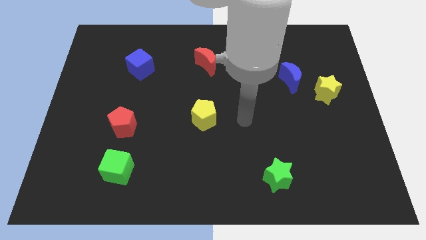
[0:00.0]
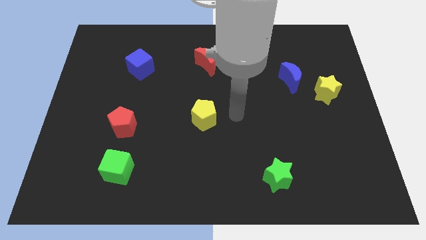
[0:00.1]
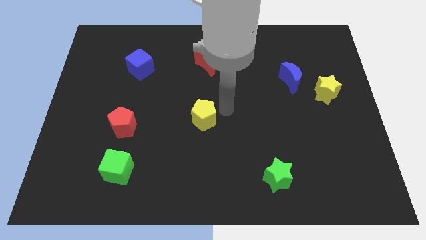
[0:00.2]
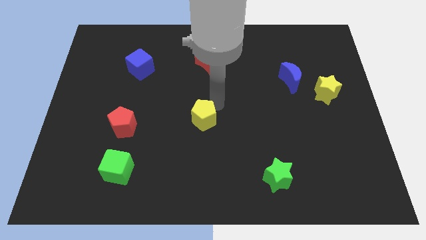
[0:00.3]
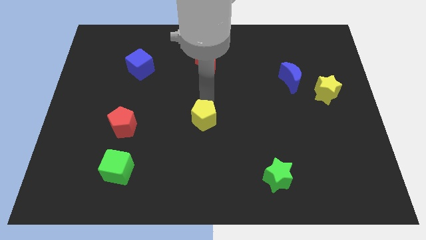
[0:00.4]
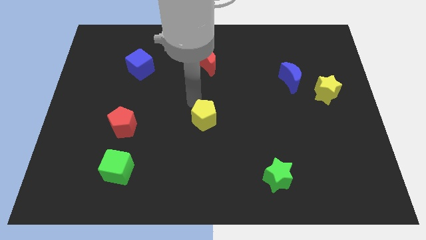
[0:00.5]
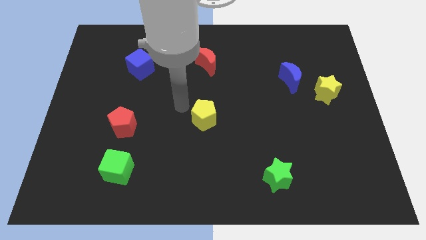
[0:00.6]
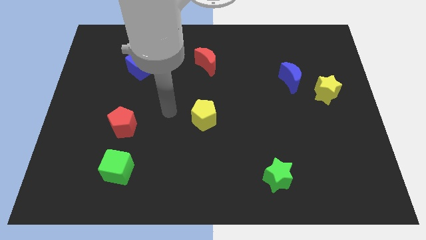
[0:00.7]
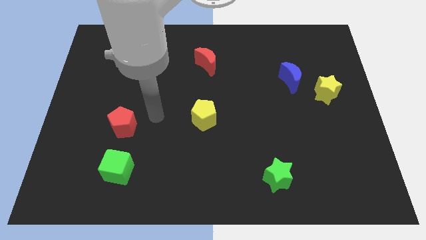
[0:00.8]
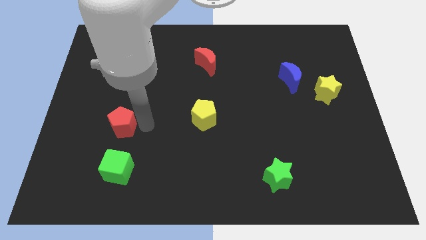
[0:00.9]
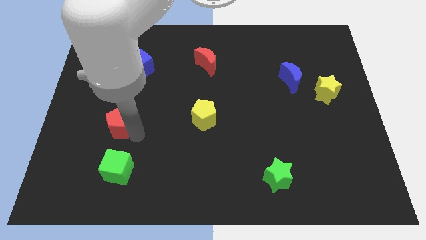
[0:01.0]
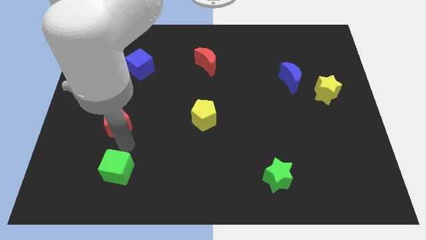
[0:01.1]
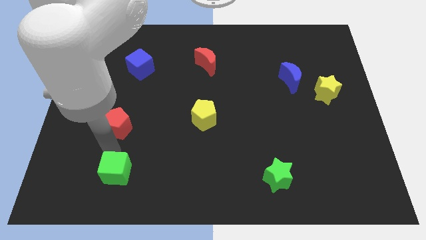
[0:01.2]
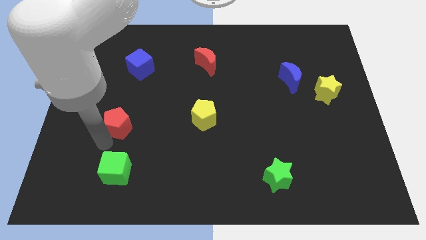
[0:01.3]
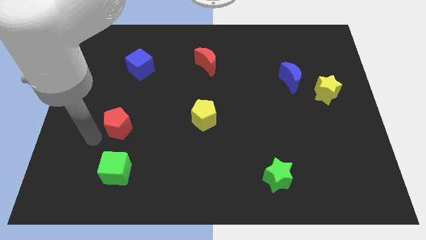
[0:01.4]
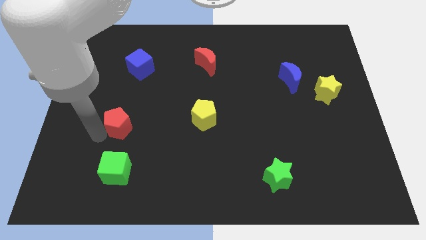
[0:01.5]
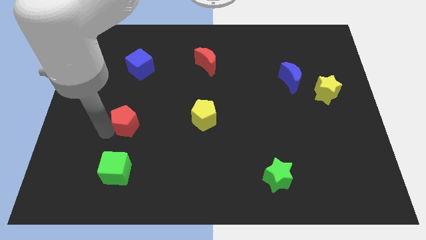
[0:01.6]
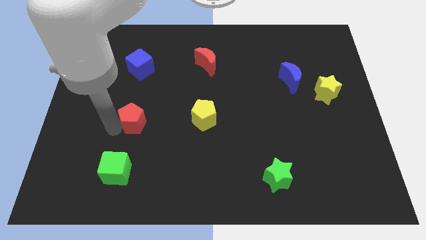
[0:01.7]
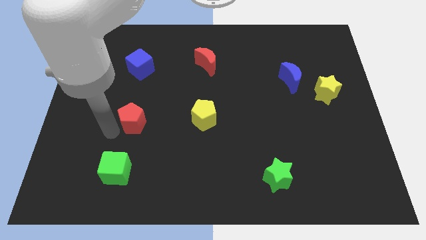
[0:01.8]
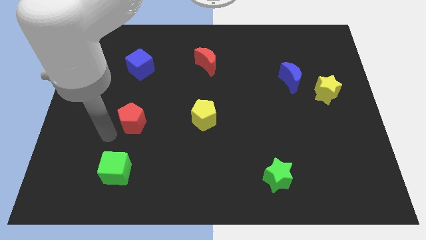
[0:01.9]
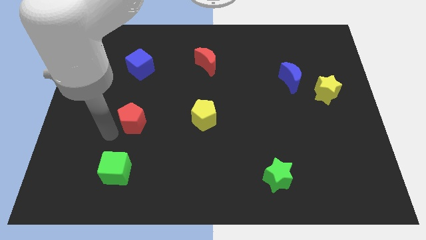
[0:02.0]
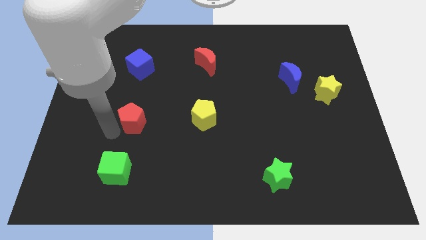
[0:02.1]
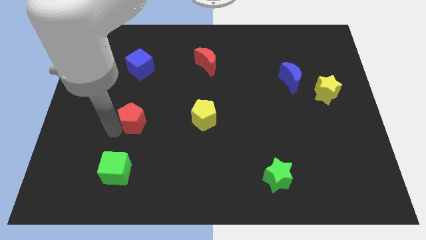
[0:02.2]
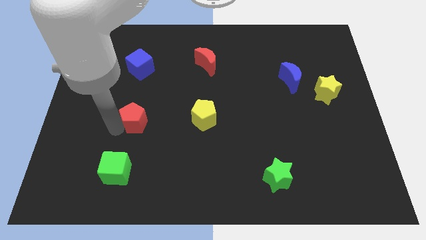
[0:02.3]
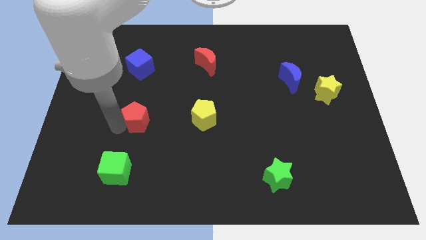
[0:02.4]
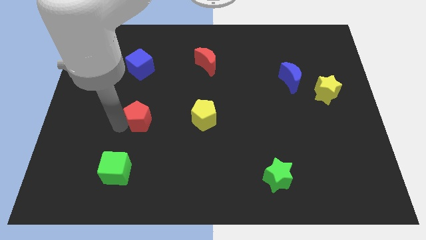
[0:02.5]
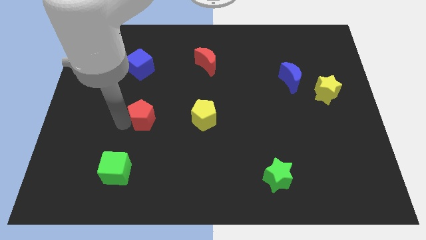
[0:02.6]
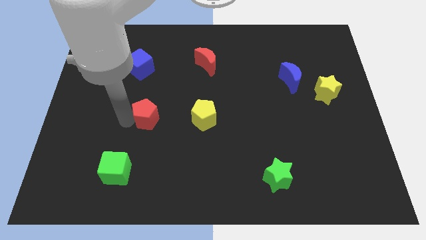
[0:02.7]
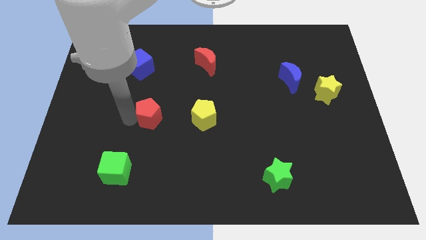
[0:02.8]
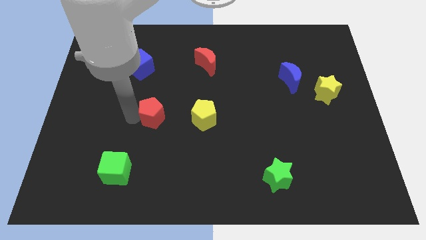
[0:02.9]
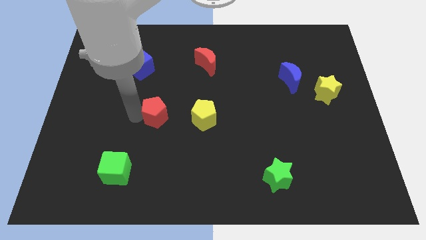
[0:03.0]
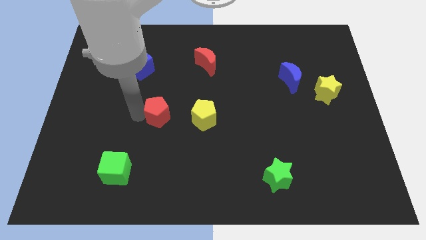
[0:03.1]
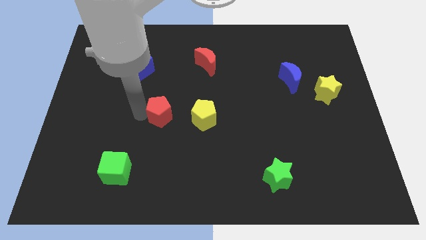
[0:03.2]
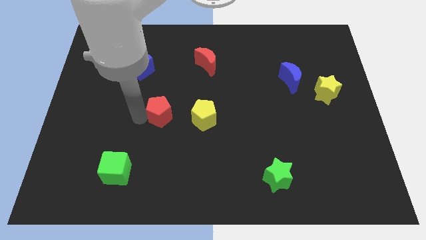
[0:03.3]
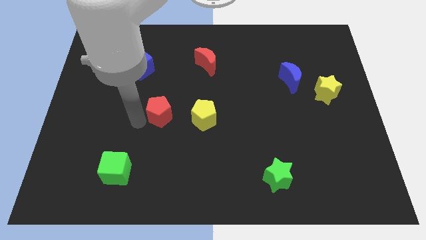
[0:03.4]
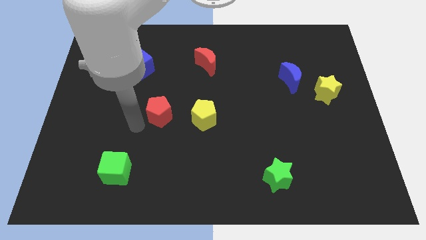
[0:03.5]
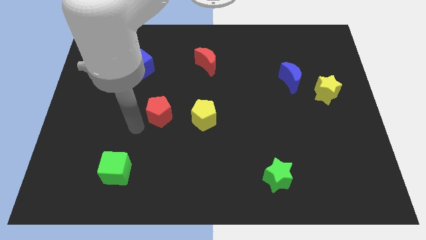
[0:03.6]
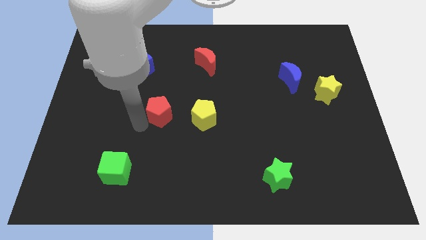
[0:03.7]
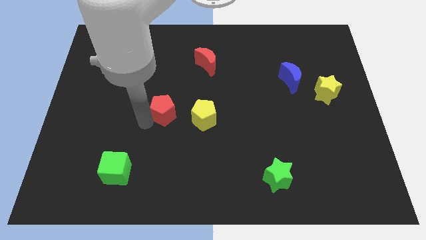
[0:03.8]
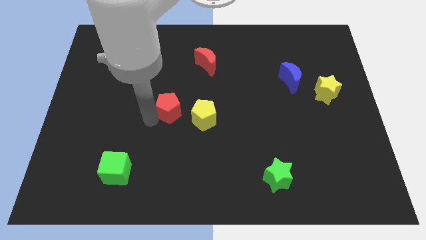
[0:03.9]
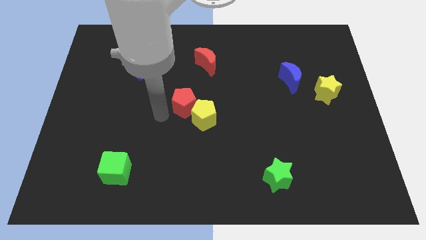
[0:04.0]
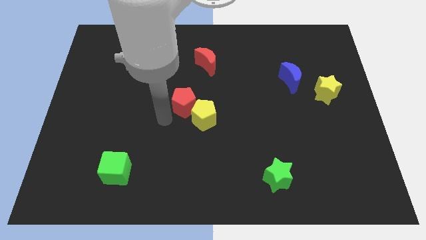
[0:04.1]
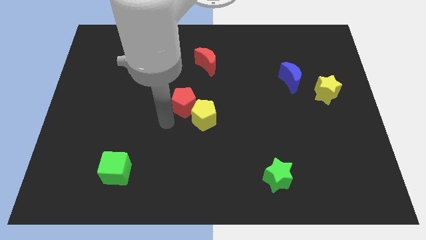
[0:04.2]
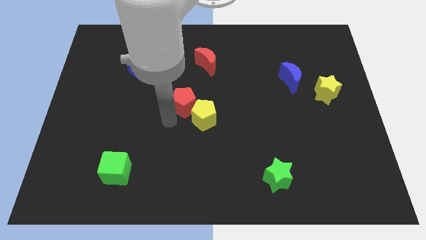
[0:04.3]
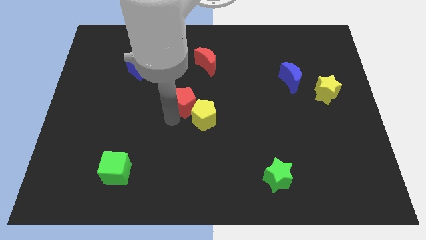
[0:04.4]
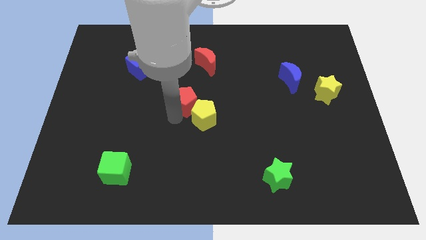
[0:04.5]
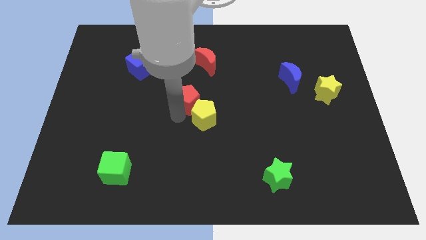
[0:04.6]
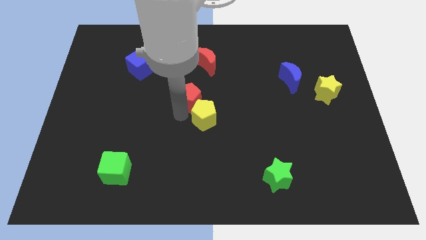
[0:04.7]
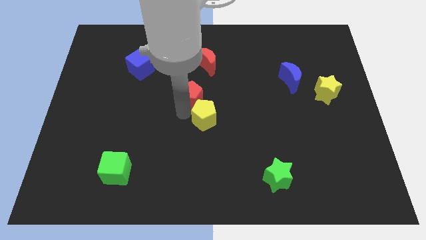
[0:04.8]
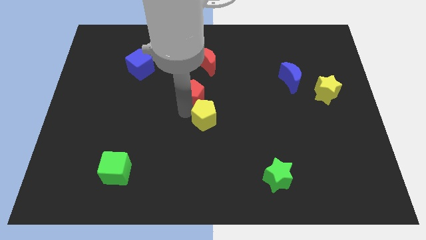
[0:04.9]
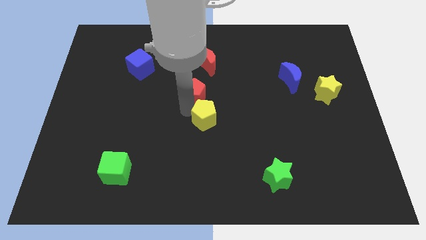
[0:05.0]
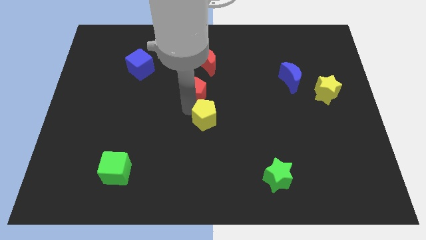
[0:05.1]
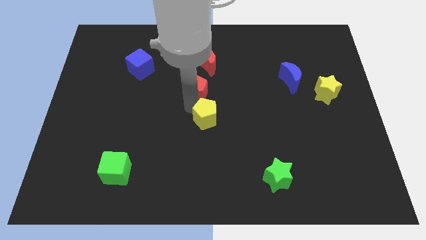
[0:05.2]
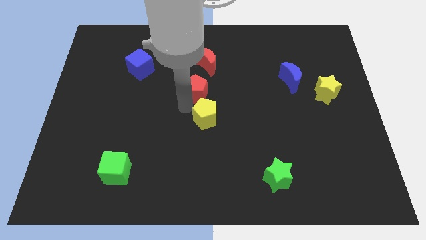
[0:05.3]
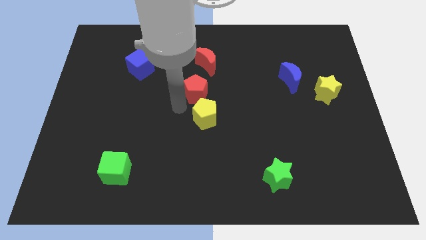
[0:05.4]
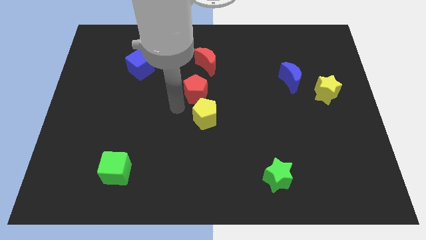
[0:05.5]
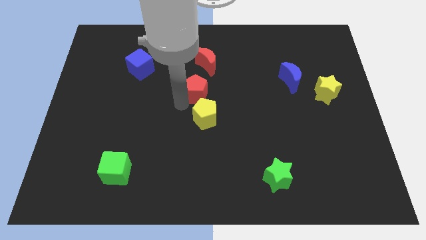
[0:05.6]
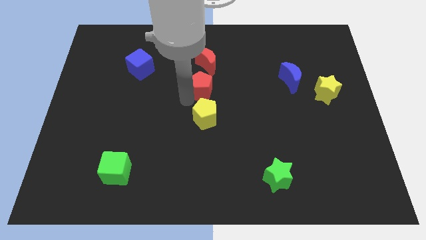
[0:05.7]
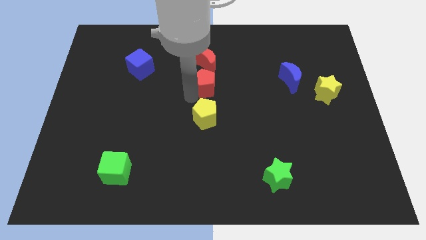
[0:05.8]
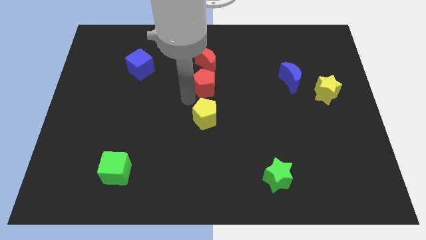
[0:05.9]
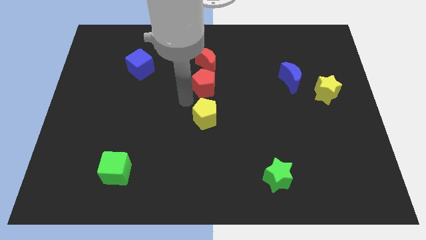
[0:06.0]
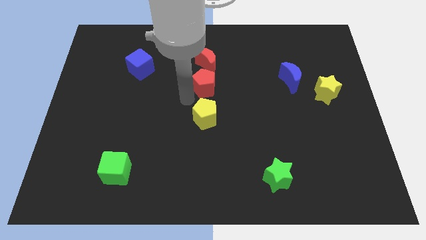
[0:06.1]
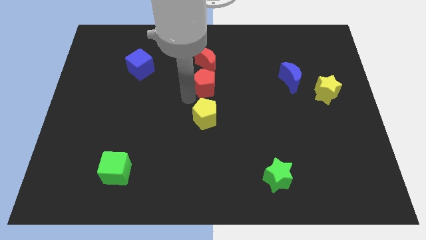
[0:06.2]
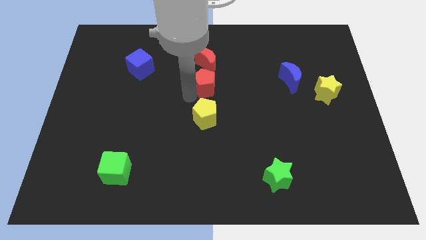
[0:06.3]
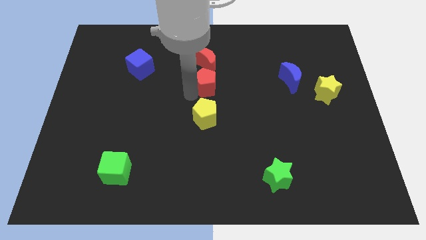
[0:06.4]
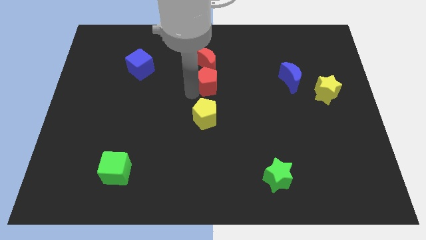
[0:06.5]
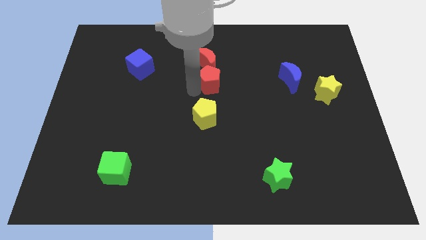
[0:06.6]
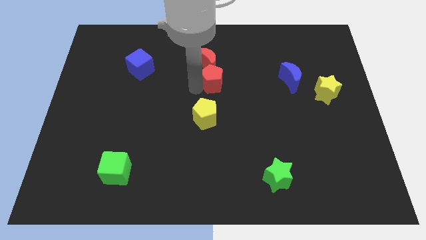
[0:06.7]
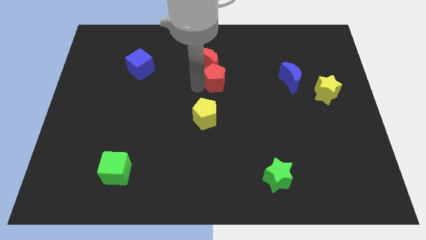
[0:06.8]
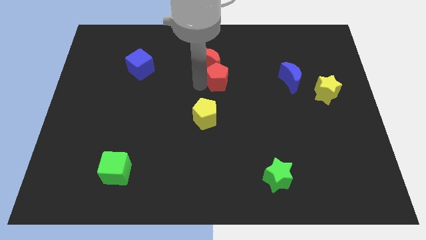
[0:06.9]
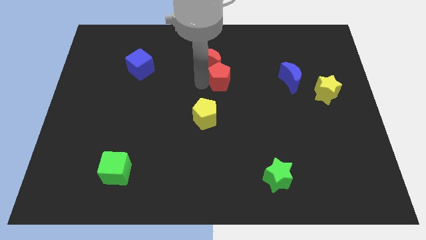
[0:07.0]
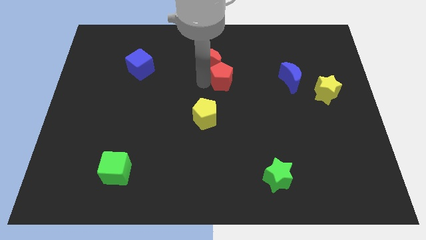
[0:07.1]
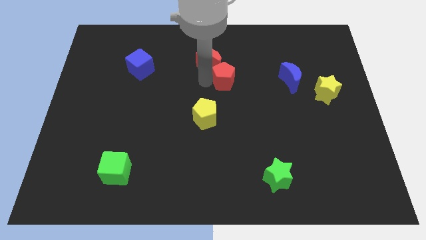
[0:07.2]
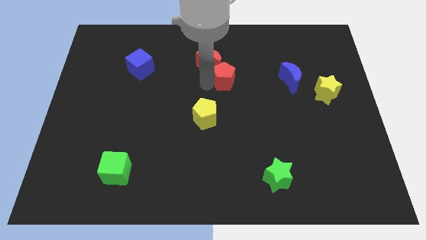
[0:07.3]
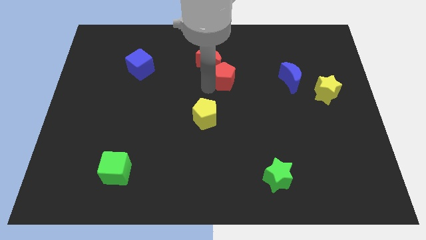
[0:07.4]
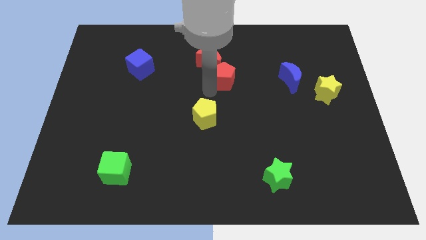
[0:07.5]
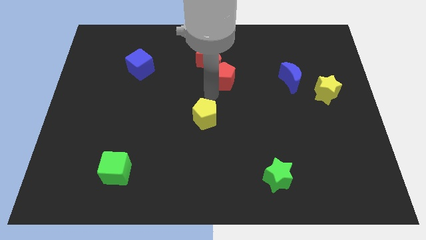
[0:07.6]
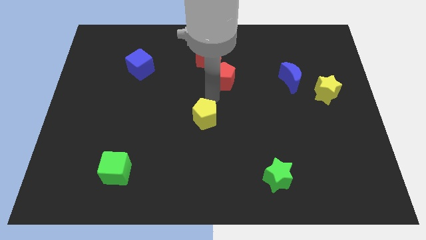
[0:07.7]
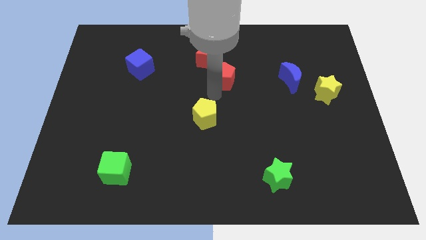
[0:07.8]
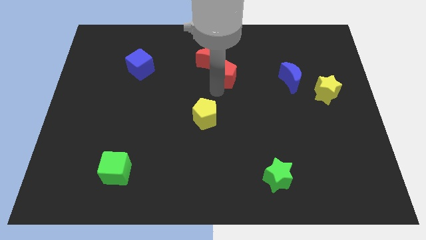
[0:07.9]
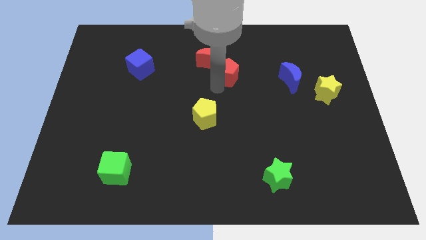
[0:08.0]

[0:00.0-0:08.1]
slide the red pentagon right of the red moon
